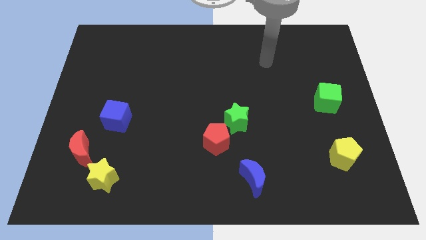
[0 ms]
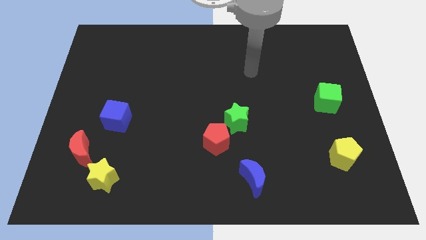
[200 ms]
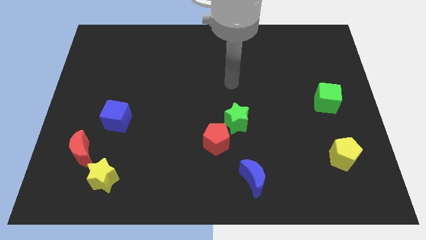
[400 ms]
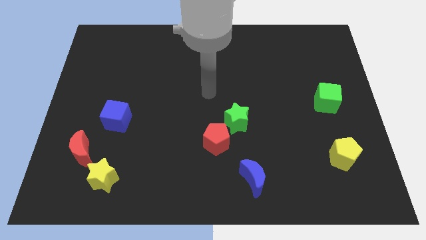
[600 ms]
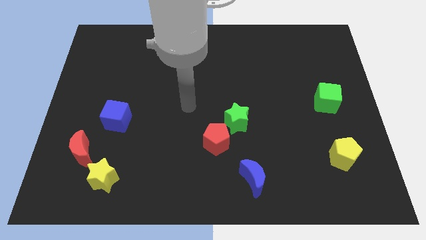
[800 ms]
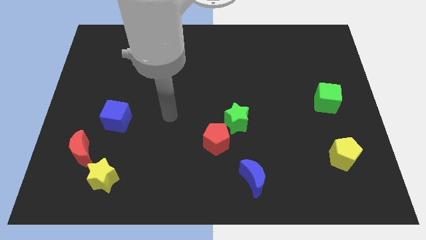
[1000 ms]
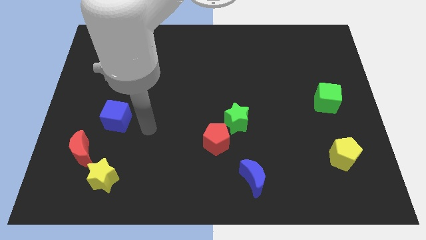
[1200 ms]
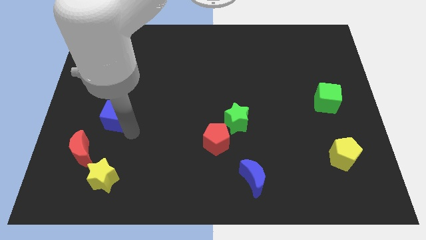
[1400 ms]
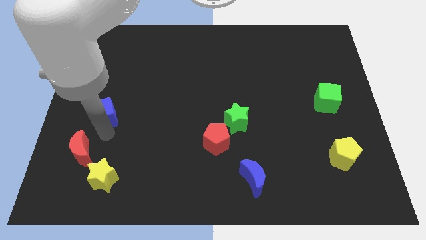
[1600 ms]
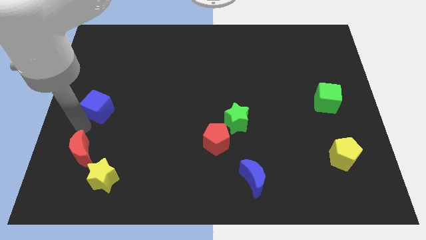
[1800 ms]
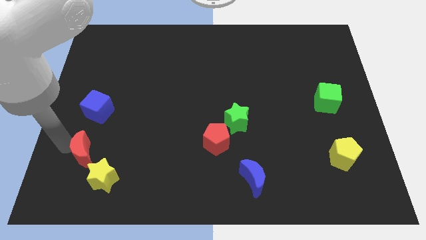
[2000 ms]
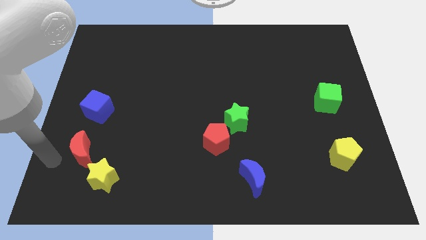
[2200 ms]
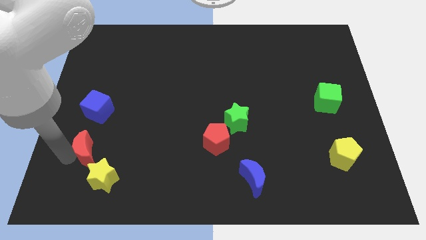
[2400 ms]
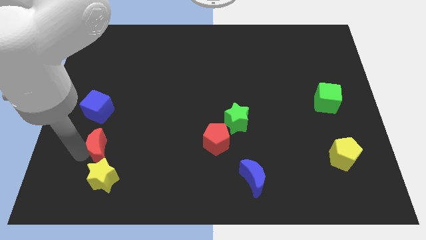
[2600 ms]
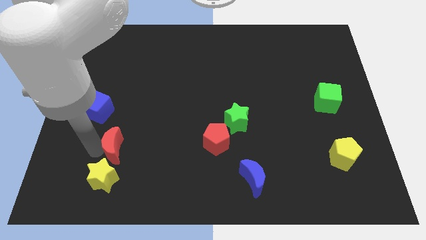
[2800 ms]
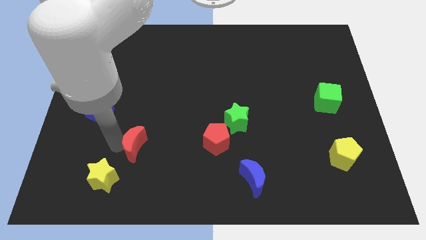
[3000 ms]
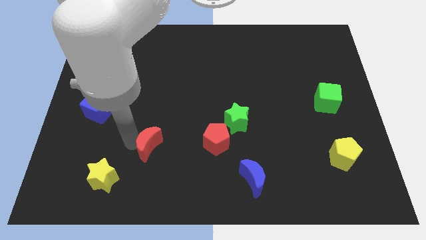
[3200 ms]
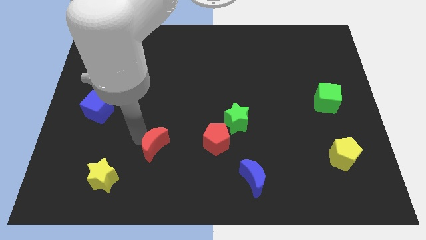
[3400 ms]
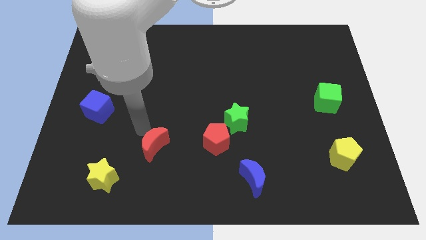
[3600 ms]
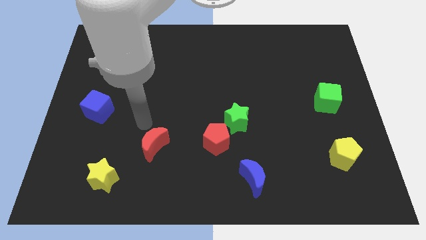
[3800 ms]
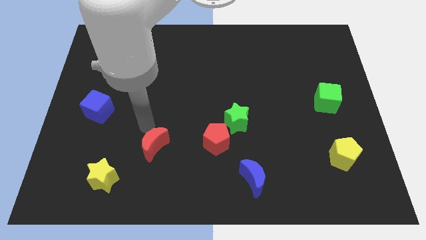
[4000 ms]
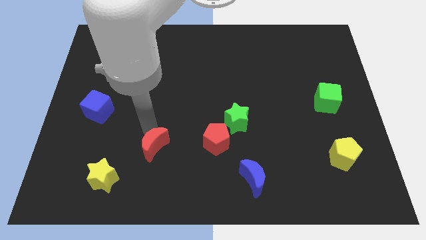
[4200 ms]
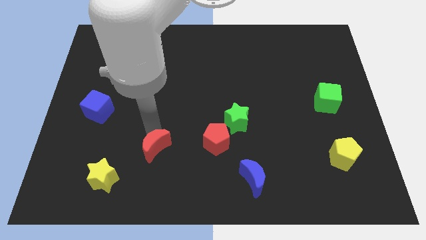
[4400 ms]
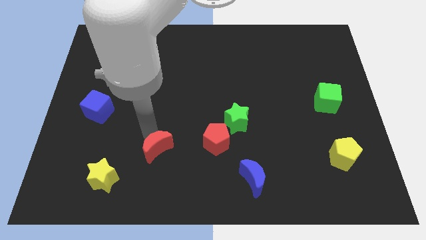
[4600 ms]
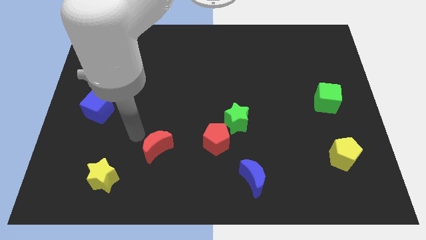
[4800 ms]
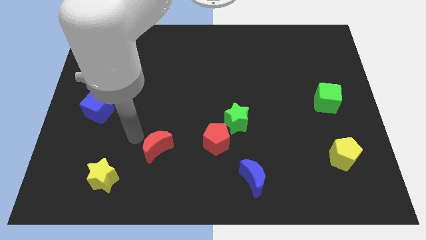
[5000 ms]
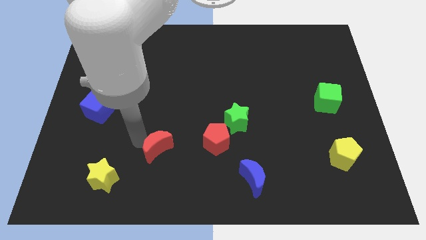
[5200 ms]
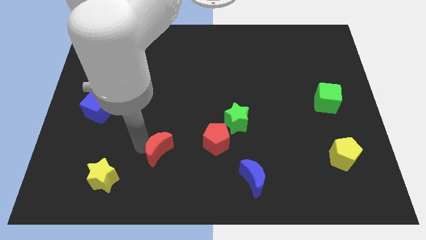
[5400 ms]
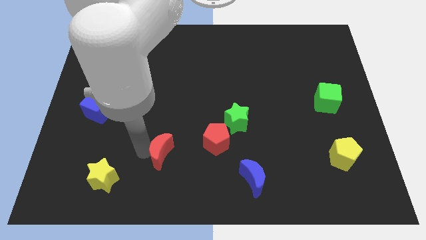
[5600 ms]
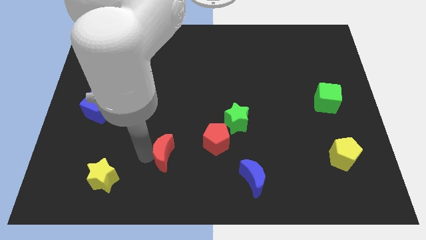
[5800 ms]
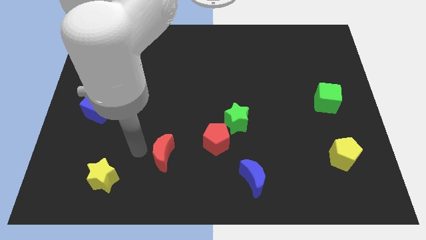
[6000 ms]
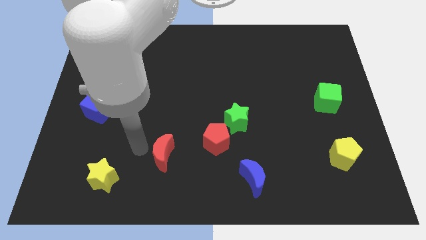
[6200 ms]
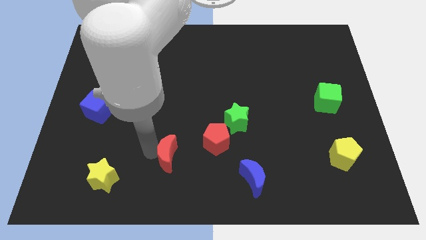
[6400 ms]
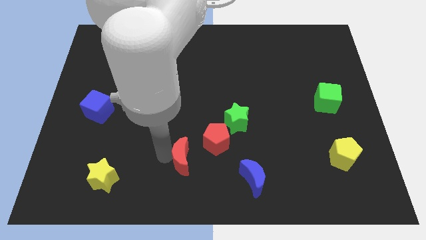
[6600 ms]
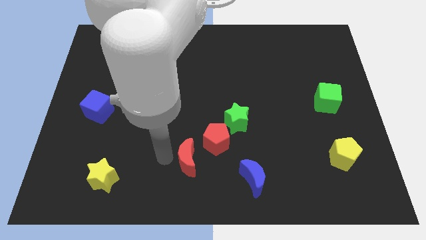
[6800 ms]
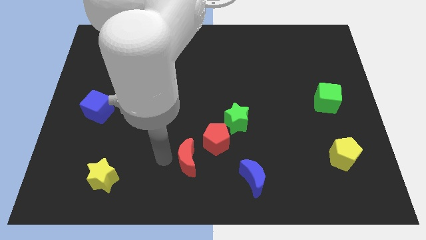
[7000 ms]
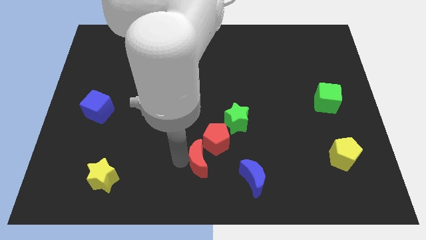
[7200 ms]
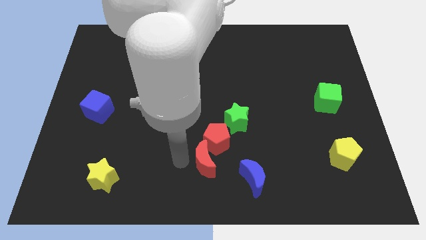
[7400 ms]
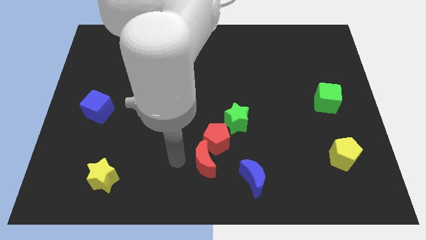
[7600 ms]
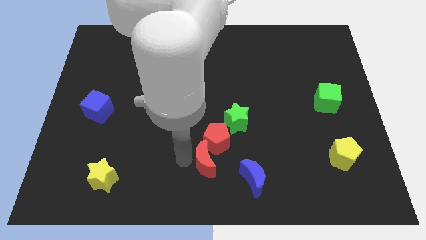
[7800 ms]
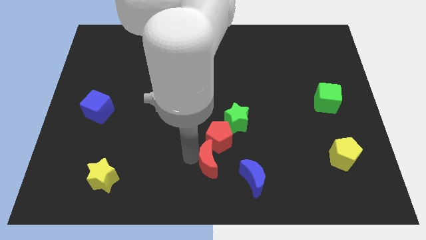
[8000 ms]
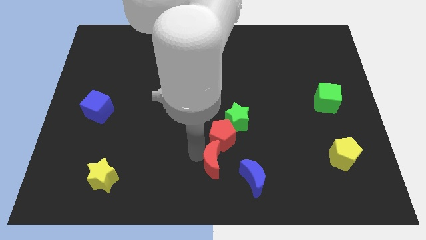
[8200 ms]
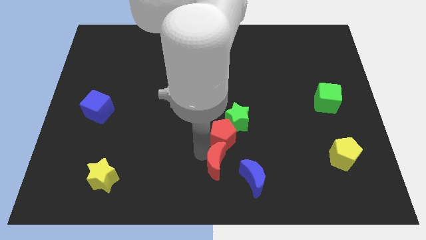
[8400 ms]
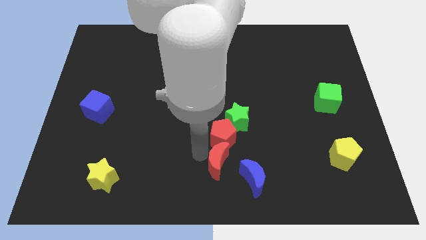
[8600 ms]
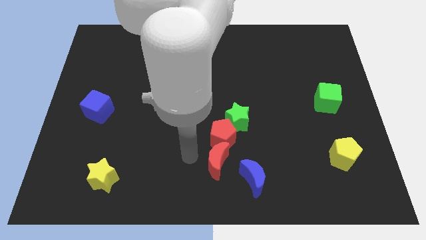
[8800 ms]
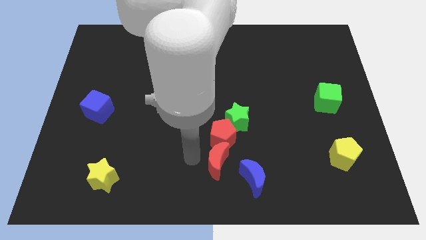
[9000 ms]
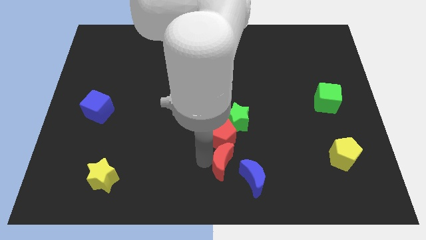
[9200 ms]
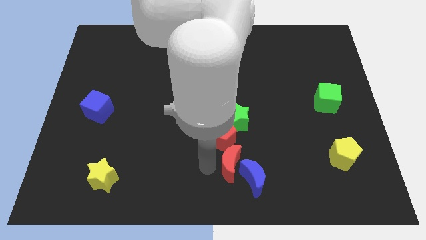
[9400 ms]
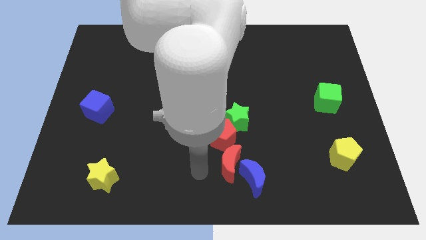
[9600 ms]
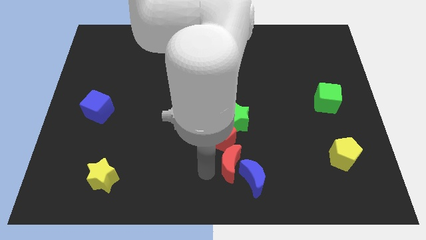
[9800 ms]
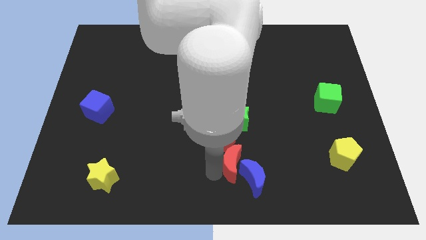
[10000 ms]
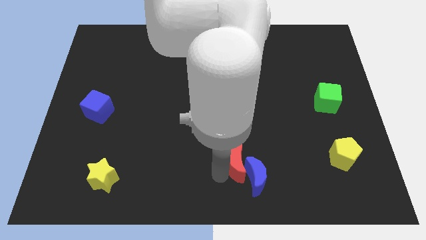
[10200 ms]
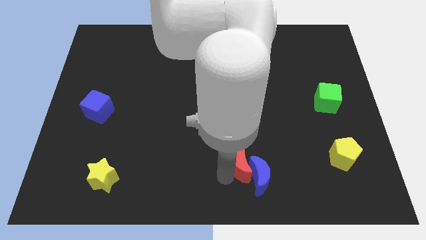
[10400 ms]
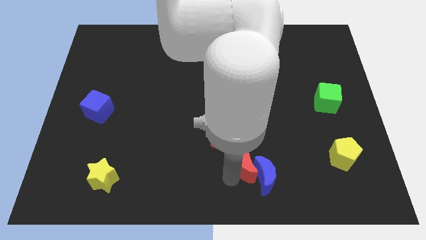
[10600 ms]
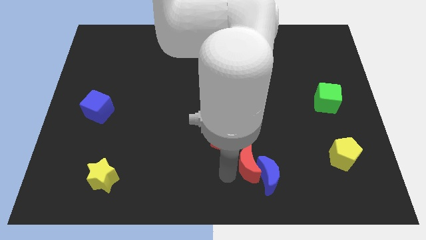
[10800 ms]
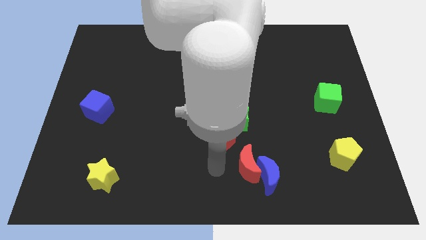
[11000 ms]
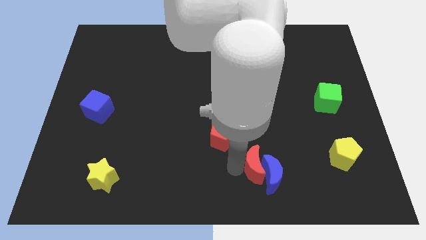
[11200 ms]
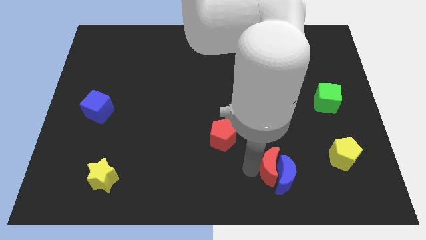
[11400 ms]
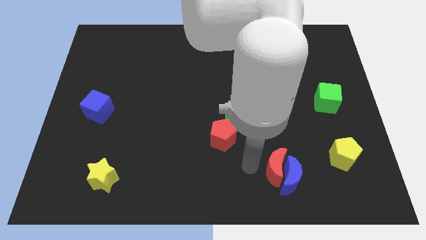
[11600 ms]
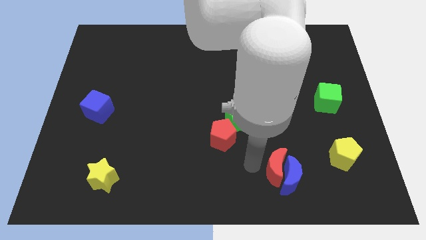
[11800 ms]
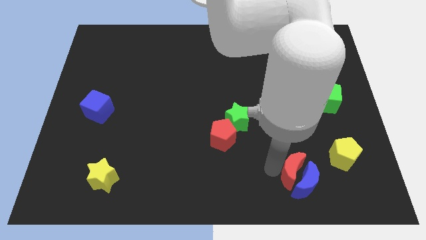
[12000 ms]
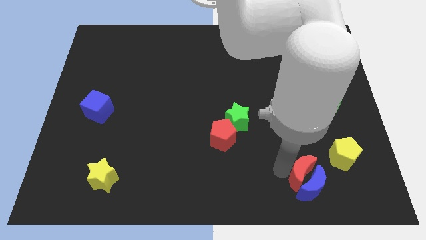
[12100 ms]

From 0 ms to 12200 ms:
move the red moon to the bottom left side of the yellow pentagon

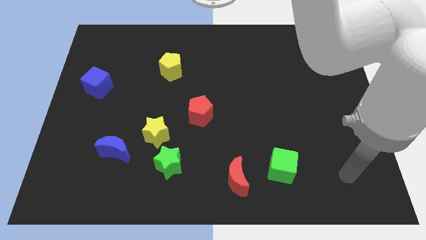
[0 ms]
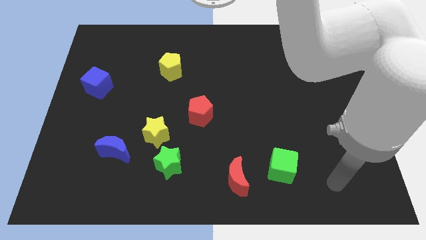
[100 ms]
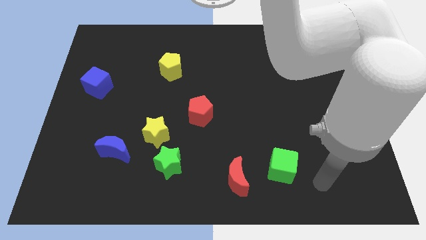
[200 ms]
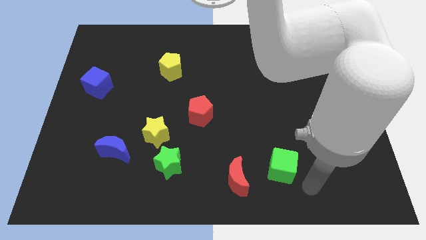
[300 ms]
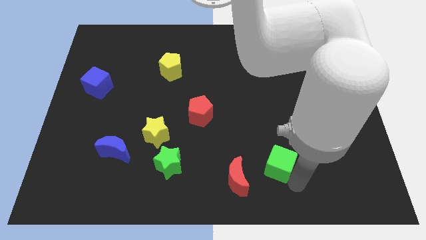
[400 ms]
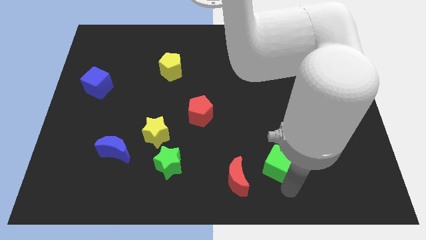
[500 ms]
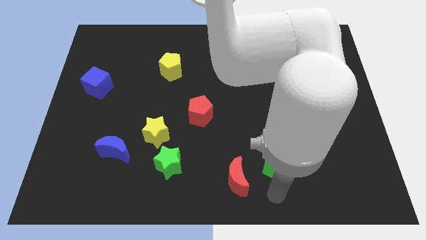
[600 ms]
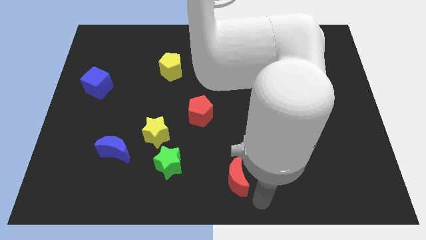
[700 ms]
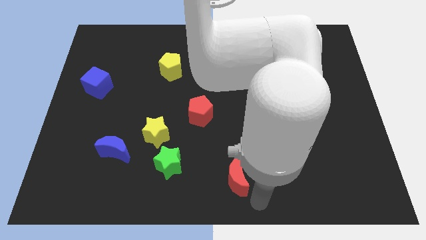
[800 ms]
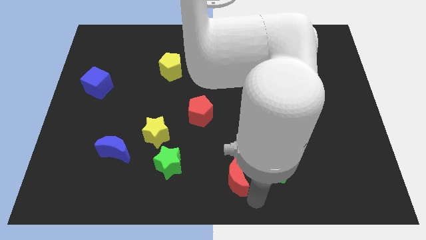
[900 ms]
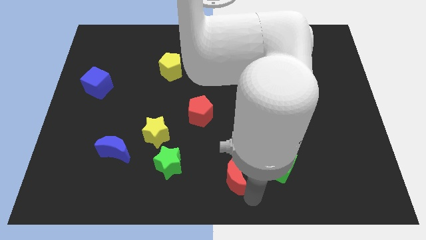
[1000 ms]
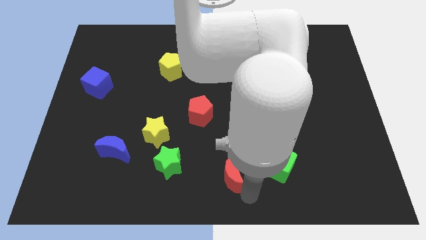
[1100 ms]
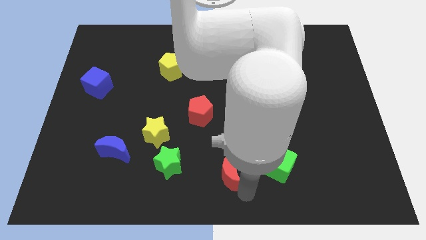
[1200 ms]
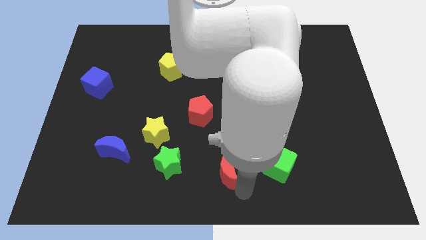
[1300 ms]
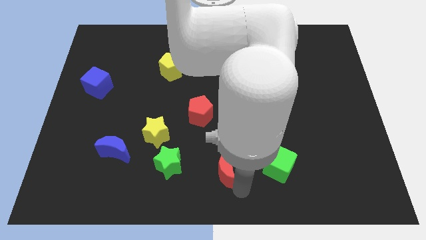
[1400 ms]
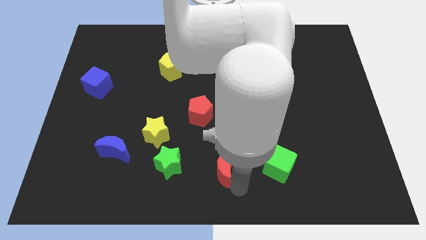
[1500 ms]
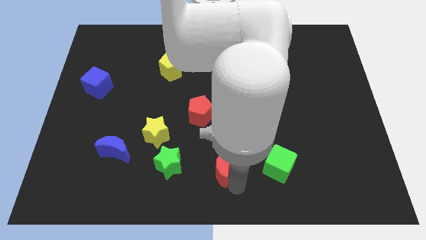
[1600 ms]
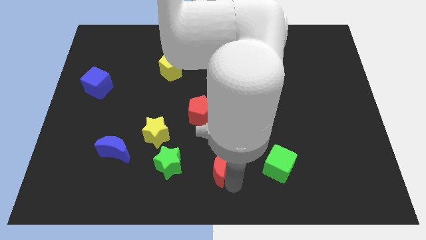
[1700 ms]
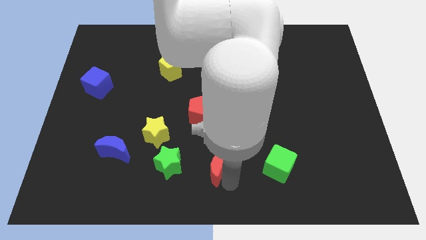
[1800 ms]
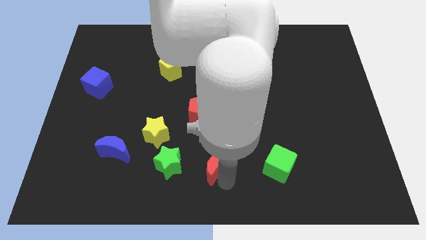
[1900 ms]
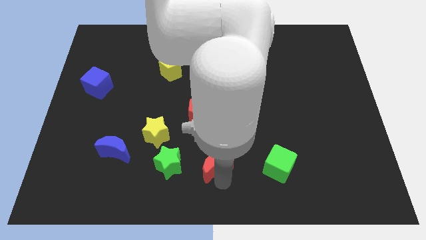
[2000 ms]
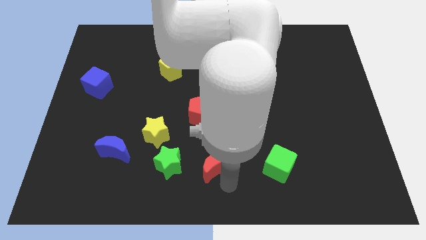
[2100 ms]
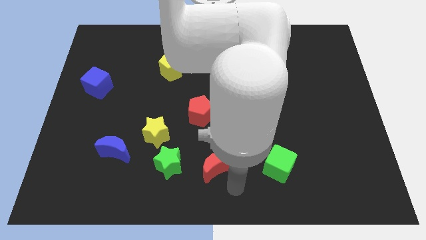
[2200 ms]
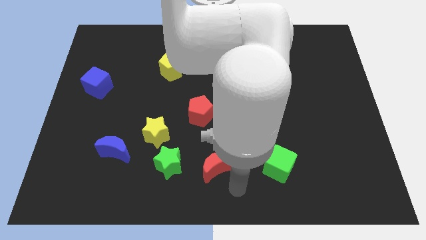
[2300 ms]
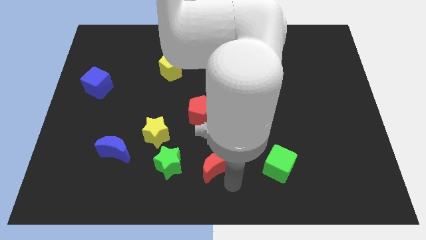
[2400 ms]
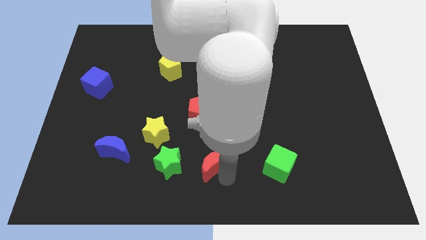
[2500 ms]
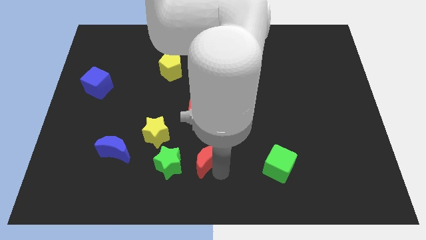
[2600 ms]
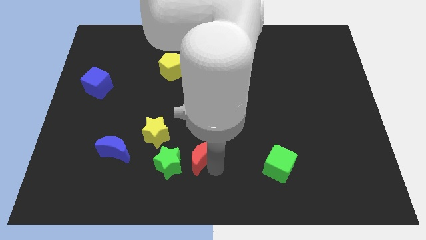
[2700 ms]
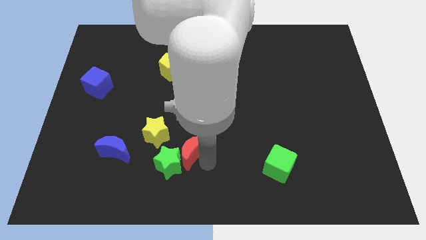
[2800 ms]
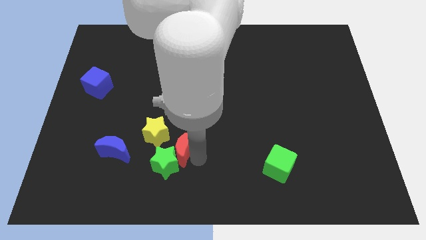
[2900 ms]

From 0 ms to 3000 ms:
put the red moon to the top side of the green star
